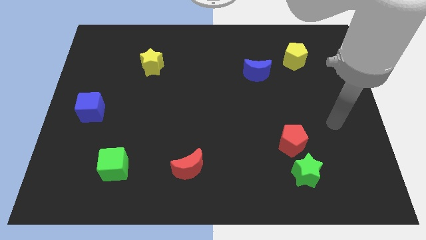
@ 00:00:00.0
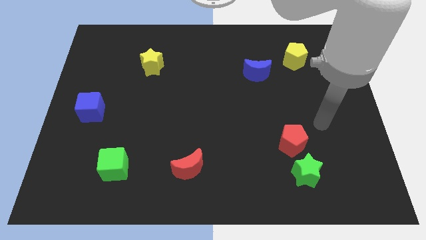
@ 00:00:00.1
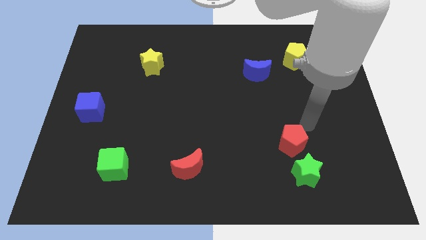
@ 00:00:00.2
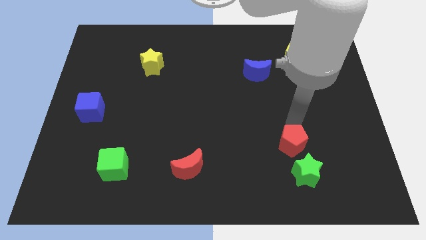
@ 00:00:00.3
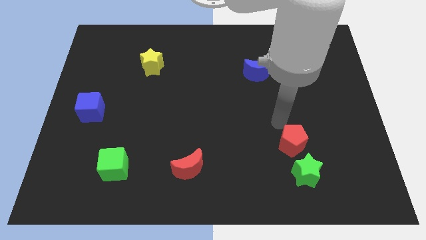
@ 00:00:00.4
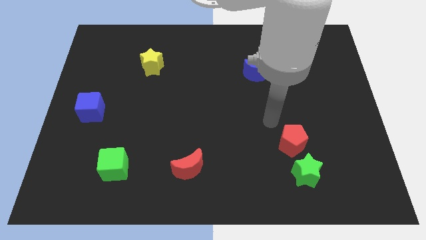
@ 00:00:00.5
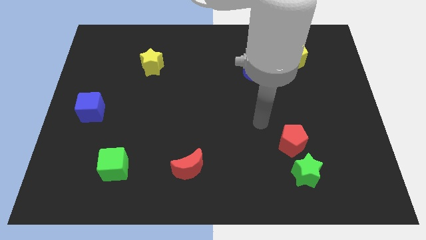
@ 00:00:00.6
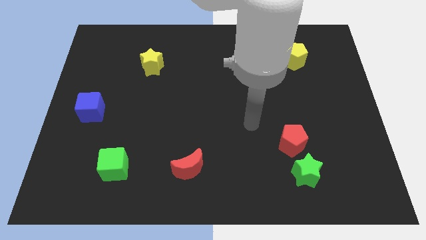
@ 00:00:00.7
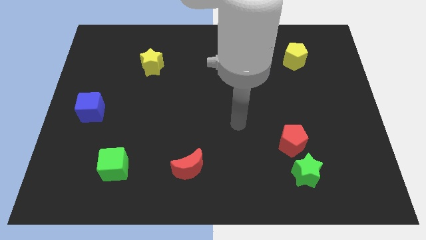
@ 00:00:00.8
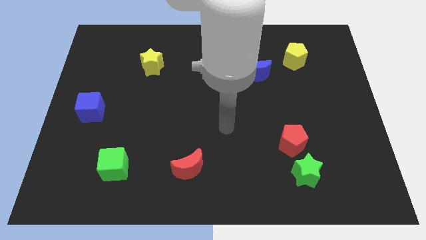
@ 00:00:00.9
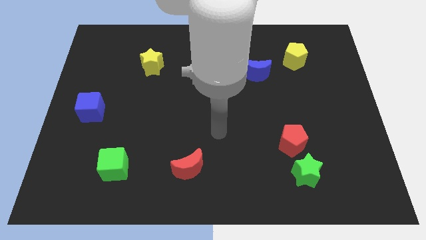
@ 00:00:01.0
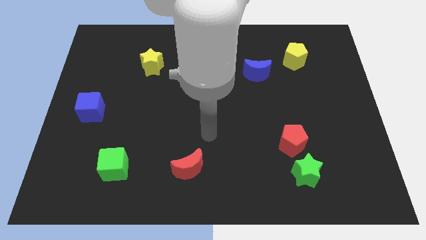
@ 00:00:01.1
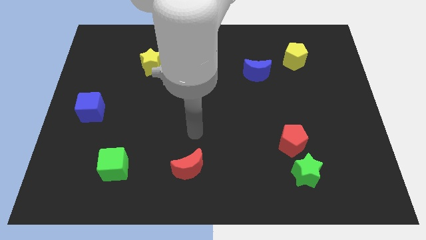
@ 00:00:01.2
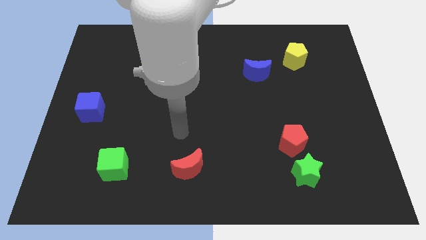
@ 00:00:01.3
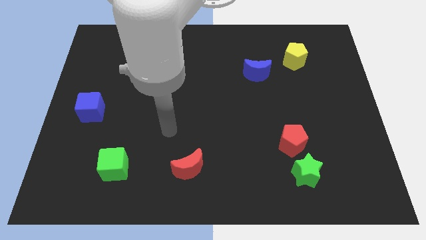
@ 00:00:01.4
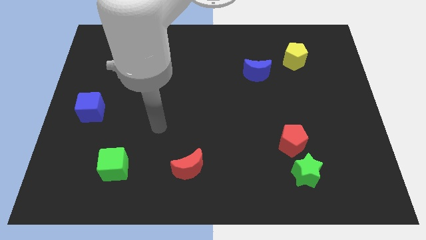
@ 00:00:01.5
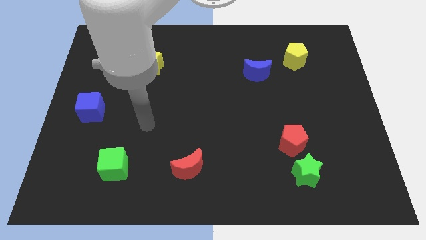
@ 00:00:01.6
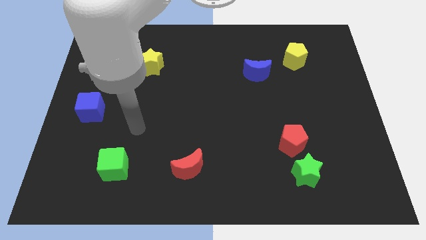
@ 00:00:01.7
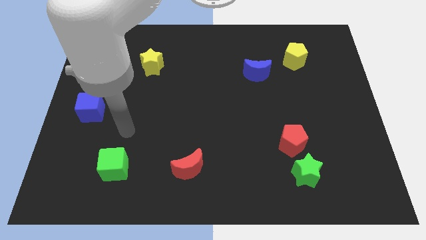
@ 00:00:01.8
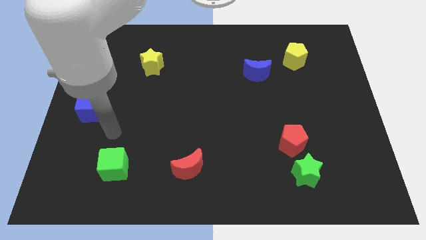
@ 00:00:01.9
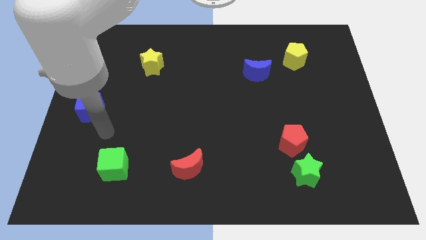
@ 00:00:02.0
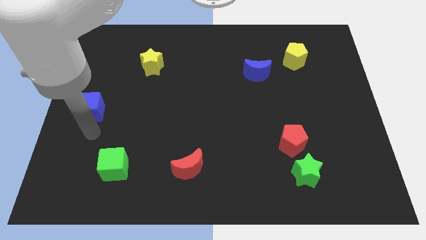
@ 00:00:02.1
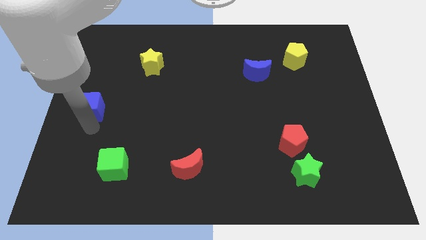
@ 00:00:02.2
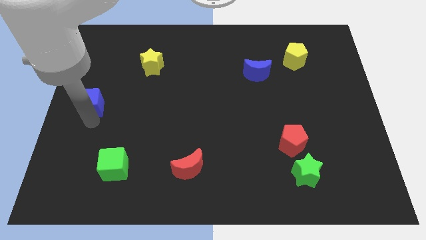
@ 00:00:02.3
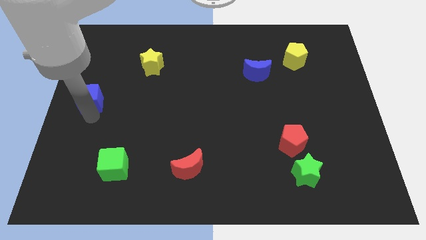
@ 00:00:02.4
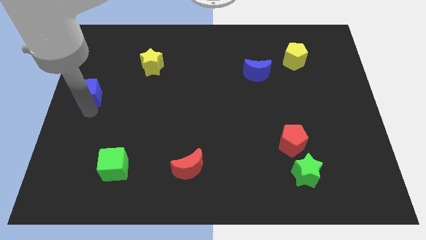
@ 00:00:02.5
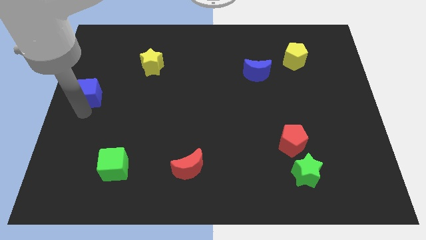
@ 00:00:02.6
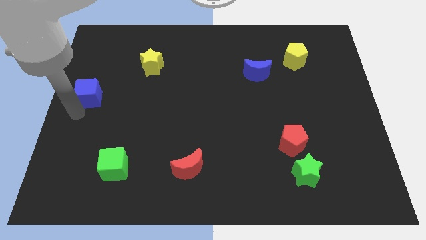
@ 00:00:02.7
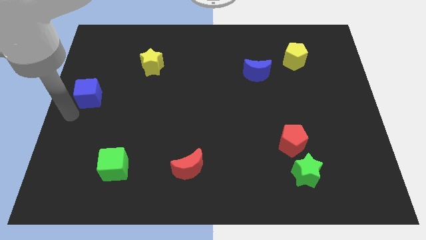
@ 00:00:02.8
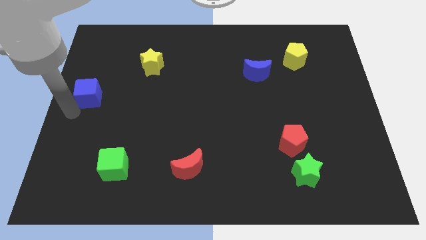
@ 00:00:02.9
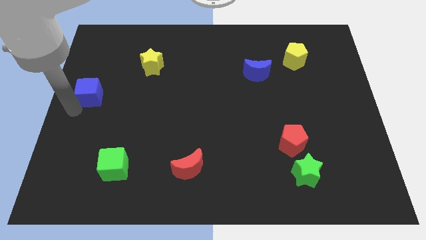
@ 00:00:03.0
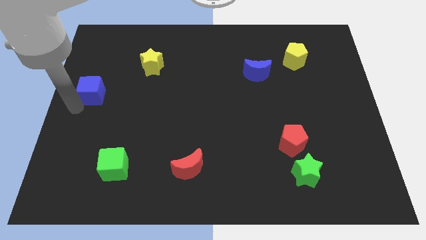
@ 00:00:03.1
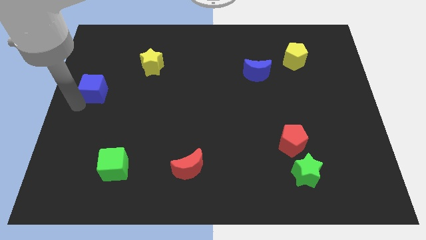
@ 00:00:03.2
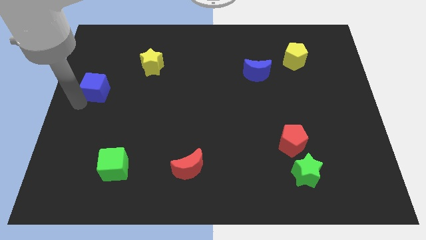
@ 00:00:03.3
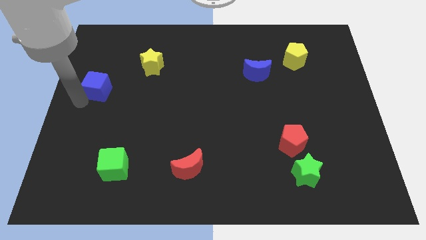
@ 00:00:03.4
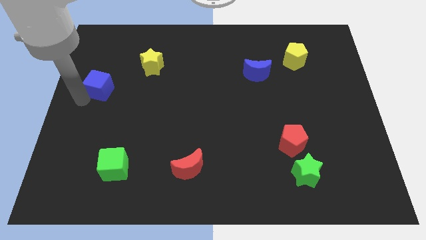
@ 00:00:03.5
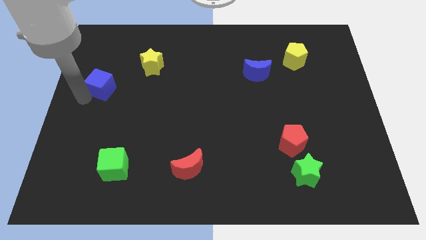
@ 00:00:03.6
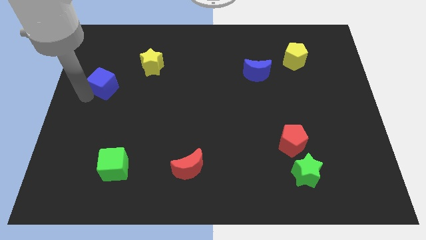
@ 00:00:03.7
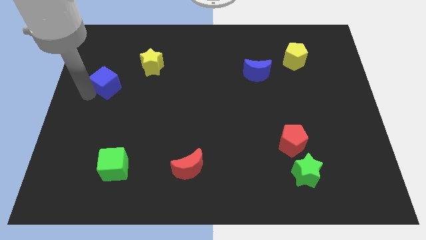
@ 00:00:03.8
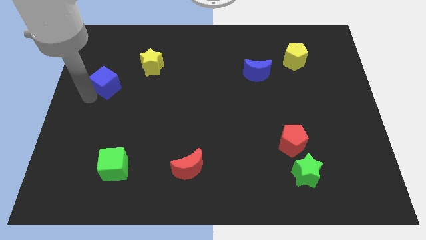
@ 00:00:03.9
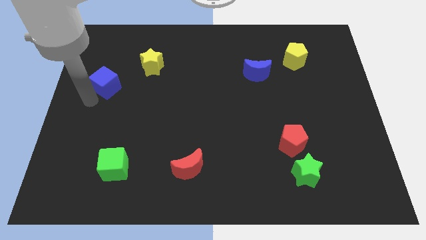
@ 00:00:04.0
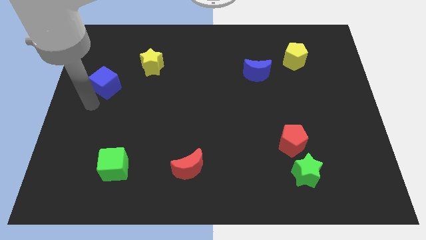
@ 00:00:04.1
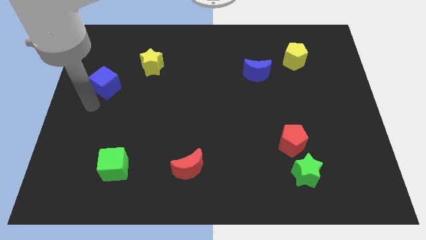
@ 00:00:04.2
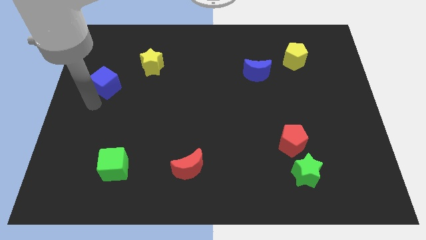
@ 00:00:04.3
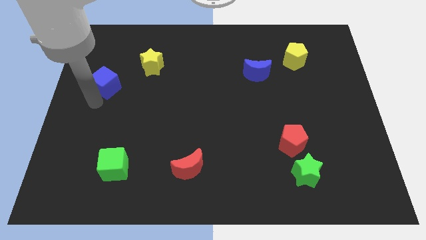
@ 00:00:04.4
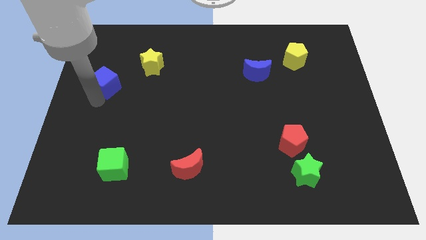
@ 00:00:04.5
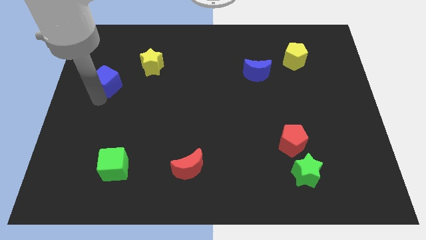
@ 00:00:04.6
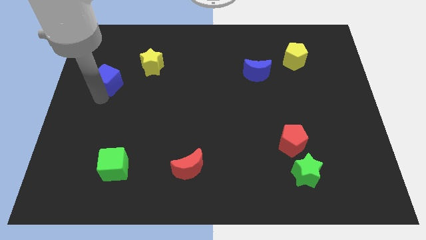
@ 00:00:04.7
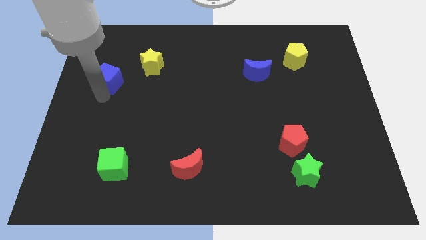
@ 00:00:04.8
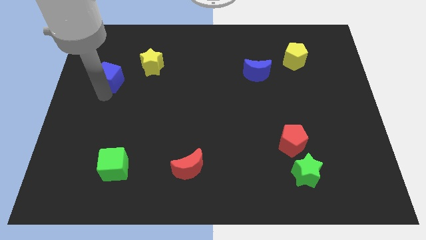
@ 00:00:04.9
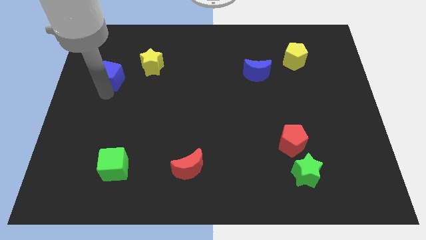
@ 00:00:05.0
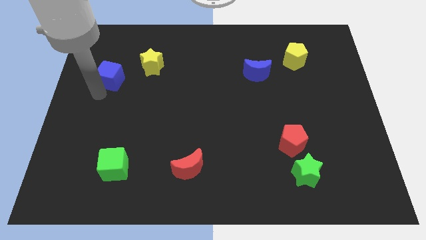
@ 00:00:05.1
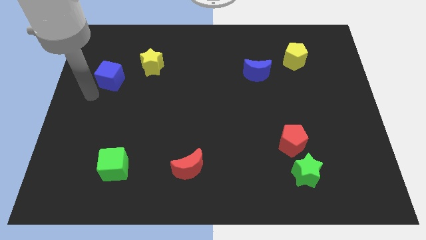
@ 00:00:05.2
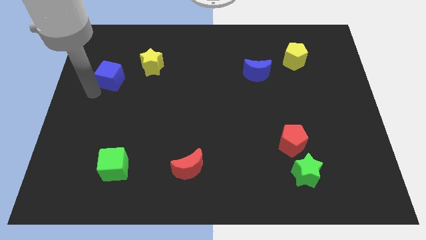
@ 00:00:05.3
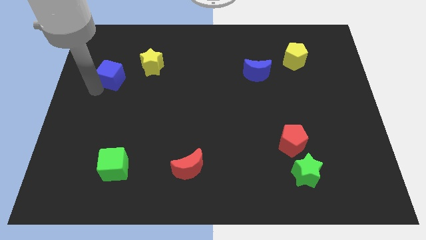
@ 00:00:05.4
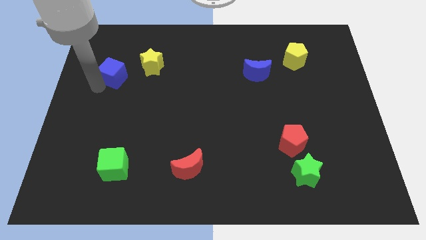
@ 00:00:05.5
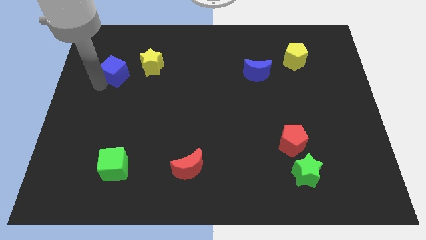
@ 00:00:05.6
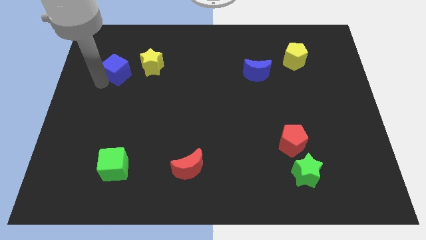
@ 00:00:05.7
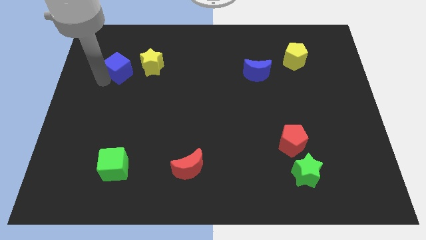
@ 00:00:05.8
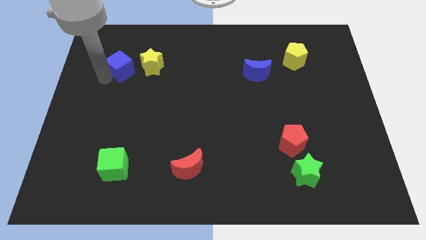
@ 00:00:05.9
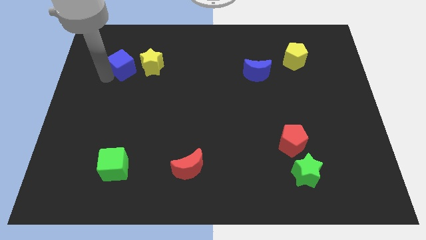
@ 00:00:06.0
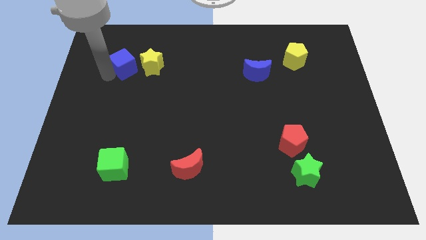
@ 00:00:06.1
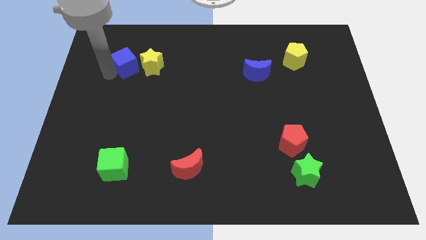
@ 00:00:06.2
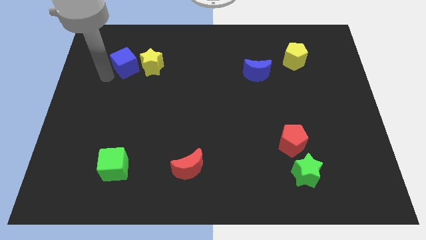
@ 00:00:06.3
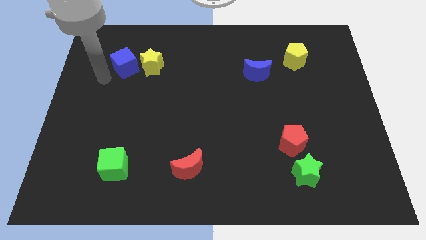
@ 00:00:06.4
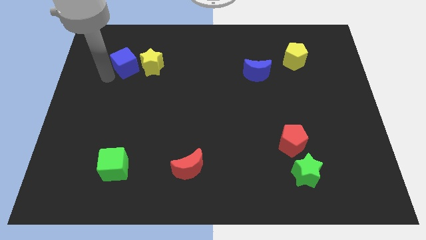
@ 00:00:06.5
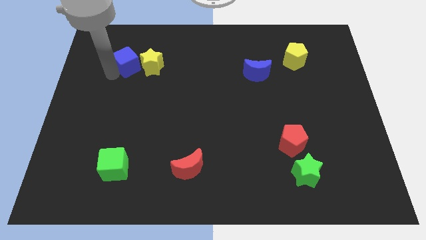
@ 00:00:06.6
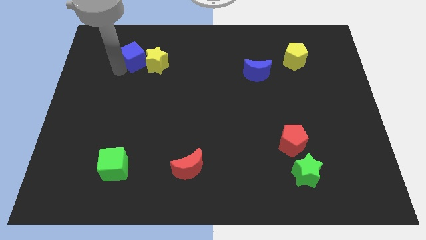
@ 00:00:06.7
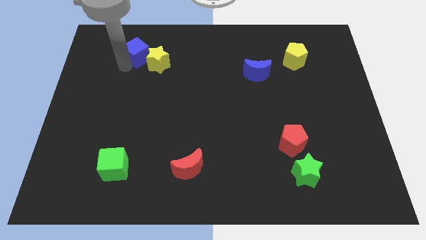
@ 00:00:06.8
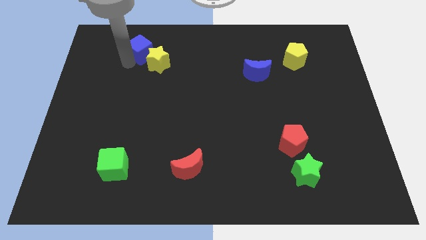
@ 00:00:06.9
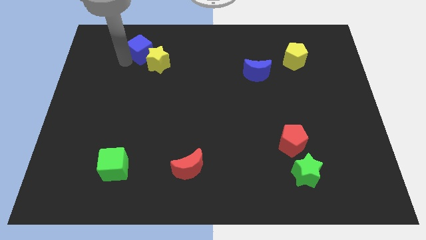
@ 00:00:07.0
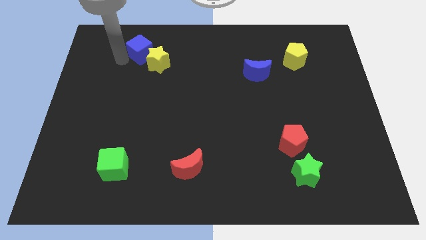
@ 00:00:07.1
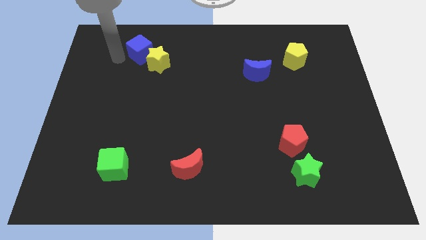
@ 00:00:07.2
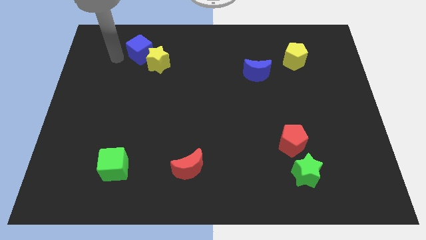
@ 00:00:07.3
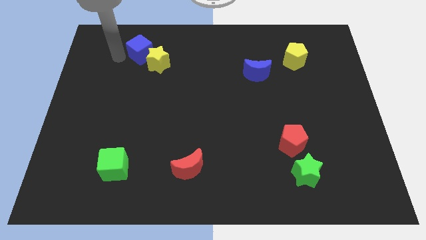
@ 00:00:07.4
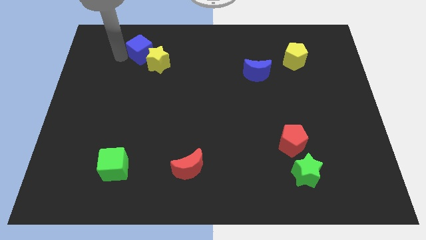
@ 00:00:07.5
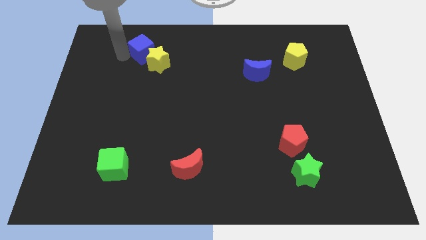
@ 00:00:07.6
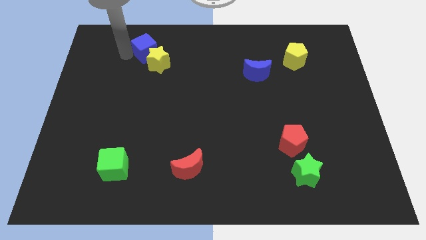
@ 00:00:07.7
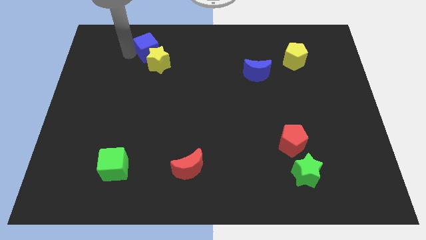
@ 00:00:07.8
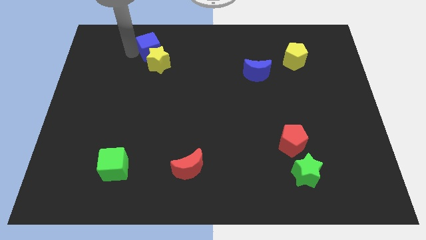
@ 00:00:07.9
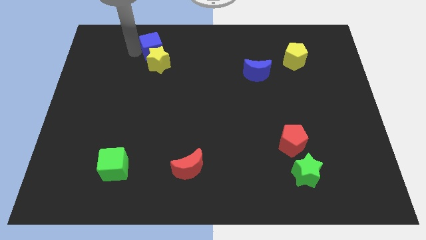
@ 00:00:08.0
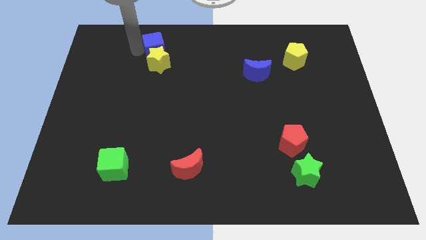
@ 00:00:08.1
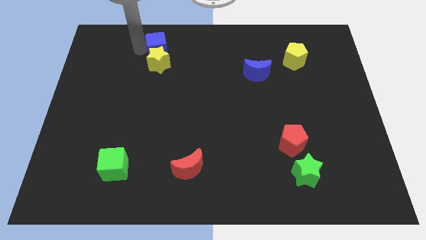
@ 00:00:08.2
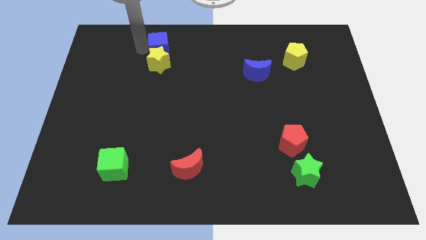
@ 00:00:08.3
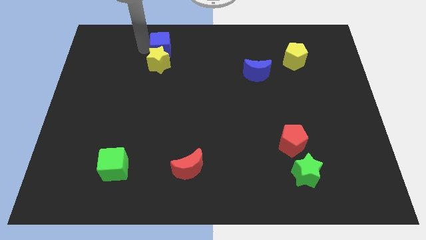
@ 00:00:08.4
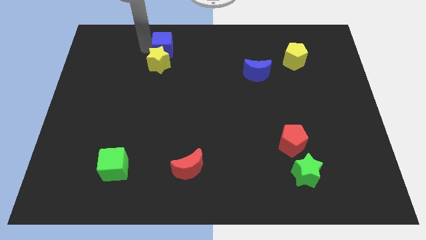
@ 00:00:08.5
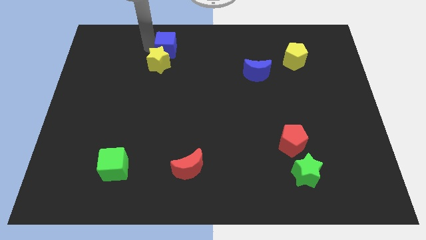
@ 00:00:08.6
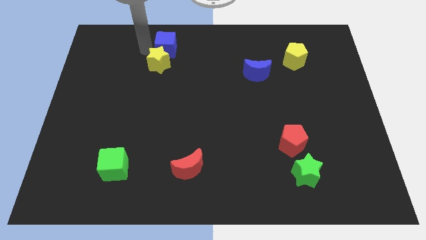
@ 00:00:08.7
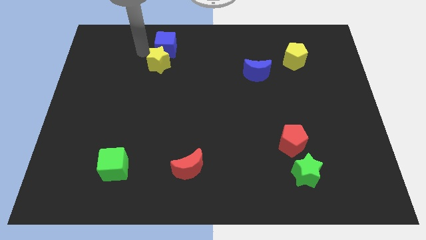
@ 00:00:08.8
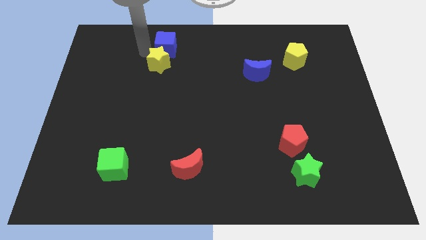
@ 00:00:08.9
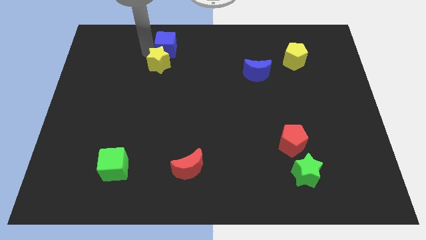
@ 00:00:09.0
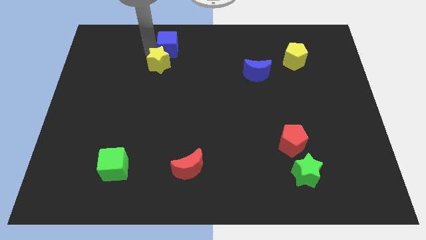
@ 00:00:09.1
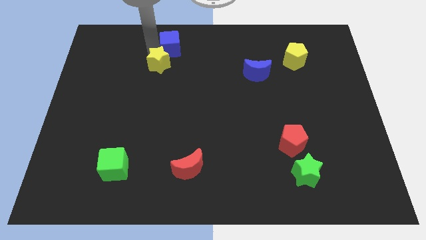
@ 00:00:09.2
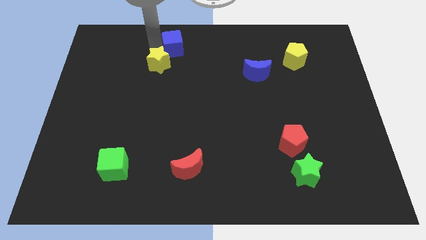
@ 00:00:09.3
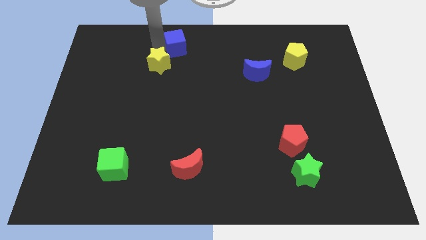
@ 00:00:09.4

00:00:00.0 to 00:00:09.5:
push the blue cube to the top side
